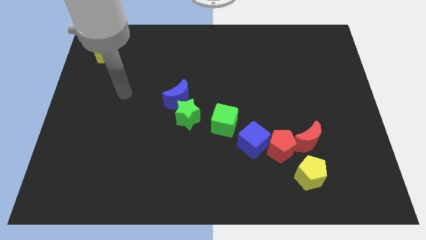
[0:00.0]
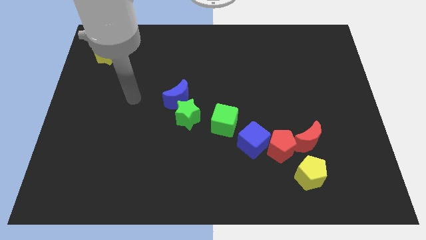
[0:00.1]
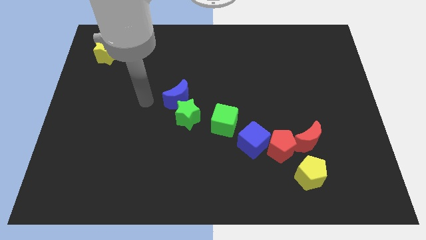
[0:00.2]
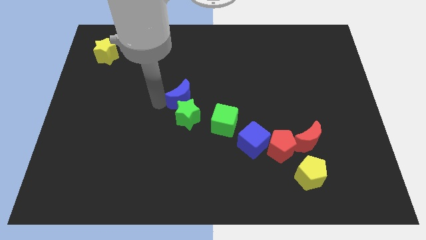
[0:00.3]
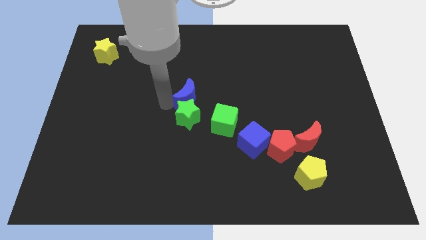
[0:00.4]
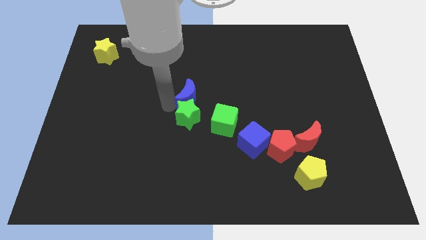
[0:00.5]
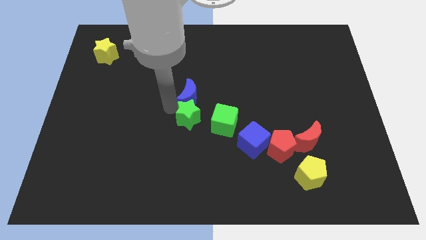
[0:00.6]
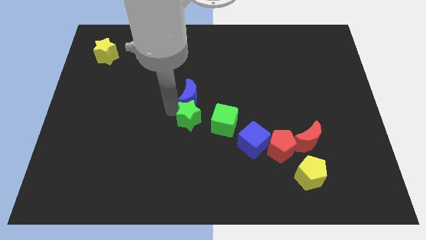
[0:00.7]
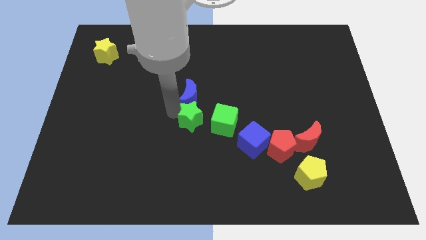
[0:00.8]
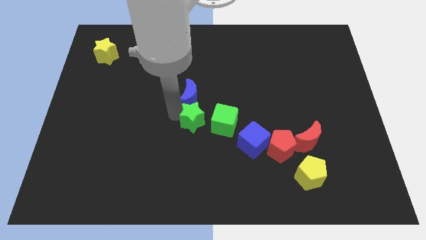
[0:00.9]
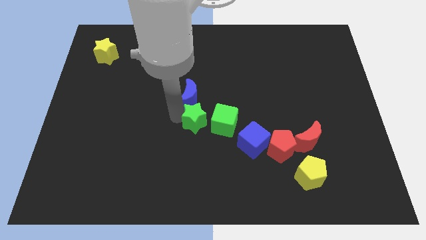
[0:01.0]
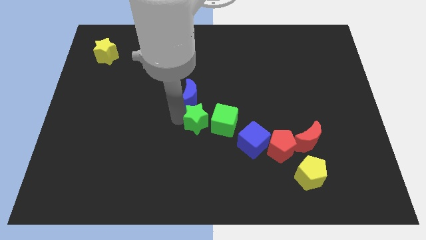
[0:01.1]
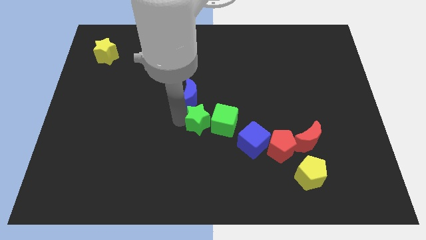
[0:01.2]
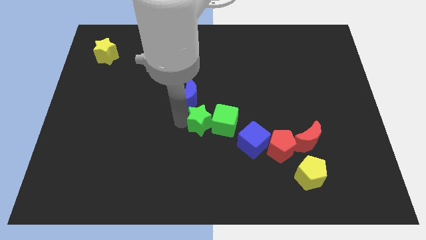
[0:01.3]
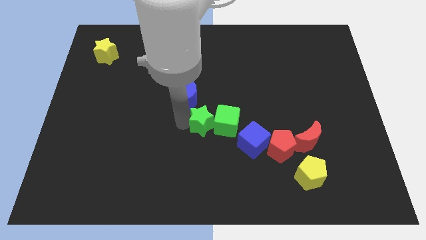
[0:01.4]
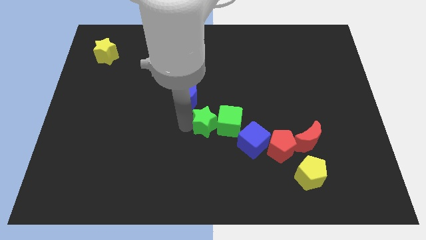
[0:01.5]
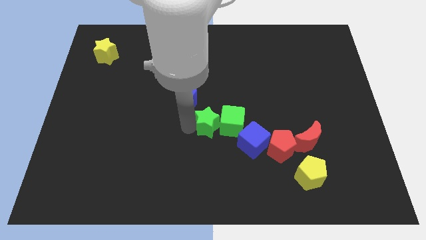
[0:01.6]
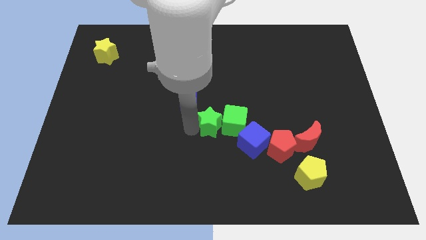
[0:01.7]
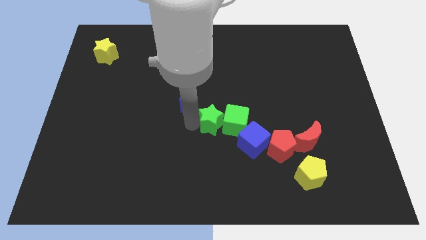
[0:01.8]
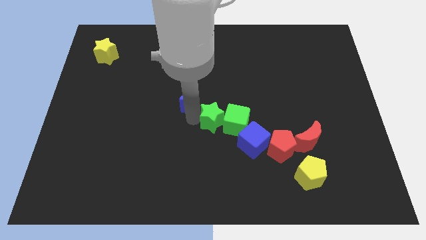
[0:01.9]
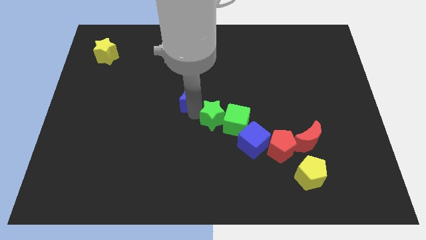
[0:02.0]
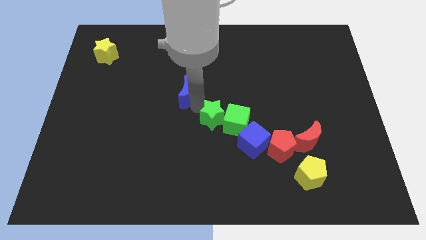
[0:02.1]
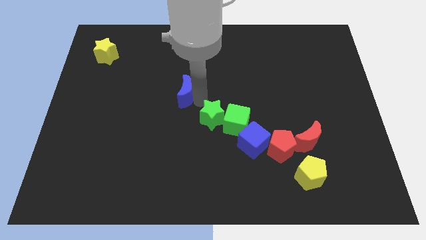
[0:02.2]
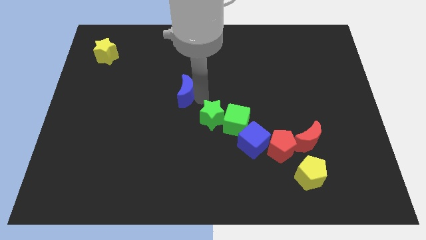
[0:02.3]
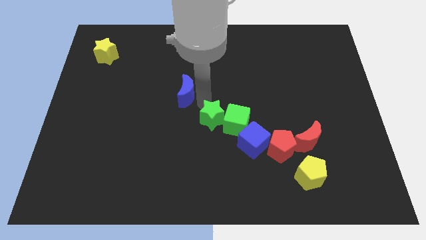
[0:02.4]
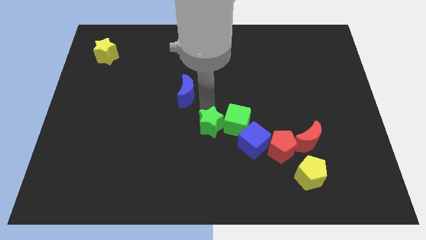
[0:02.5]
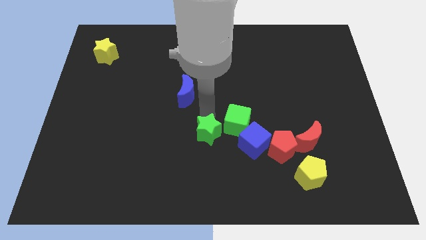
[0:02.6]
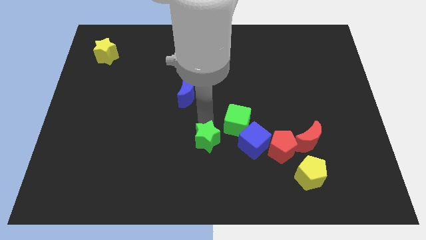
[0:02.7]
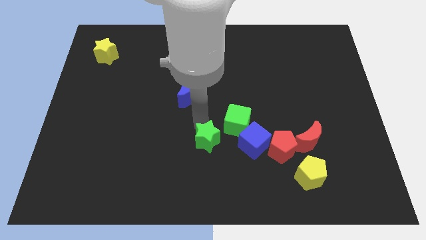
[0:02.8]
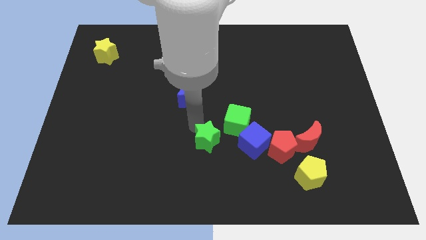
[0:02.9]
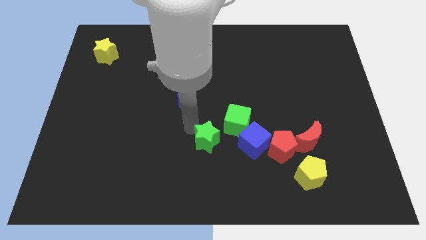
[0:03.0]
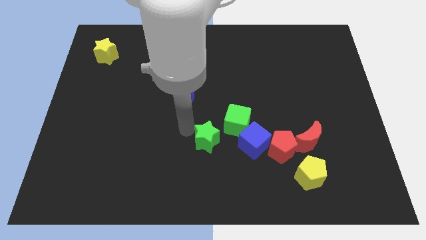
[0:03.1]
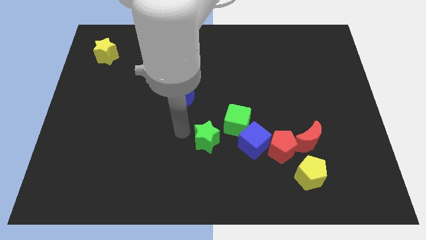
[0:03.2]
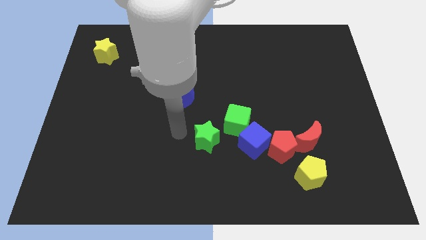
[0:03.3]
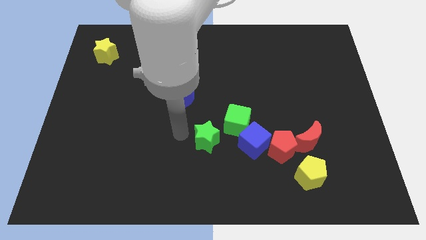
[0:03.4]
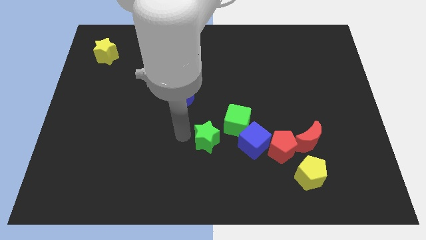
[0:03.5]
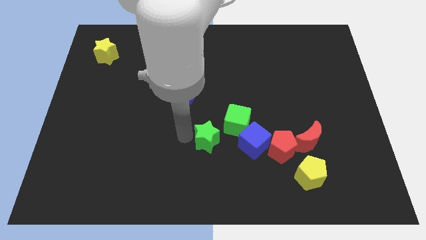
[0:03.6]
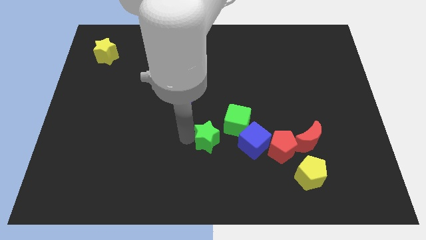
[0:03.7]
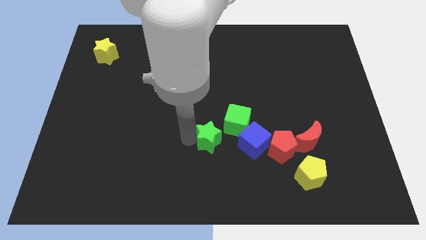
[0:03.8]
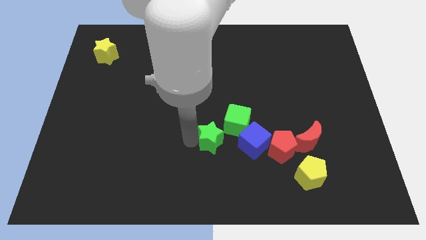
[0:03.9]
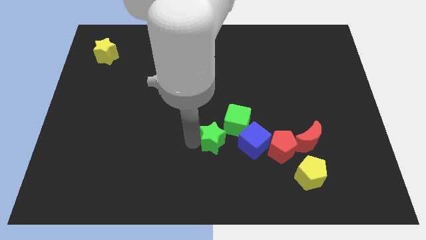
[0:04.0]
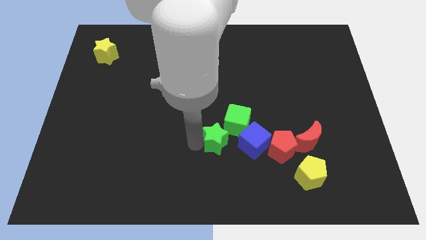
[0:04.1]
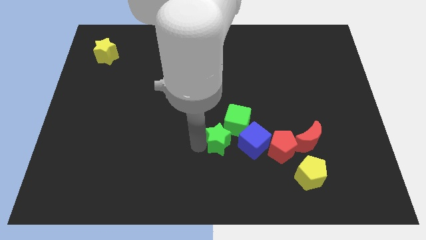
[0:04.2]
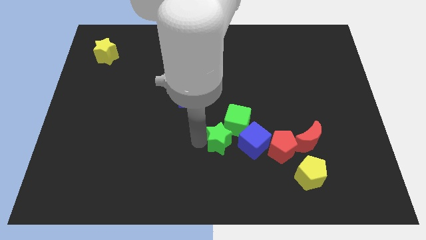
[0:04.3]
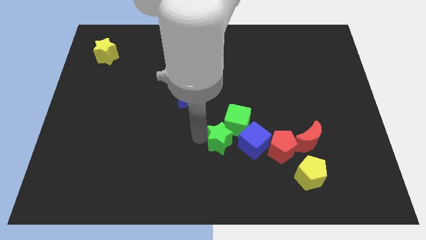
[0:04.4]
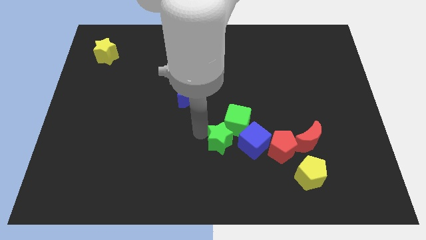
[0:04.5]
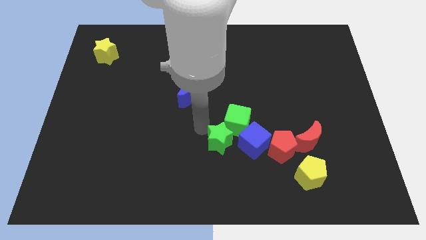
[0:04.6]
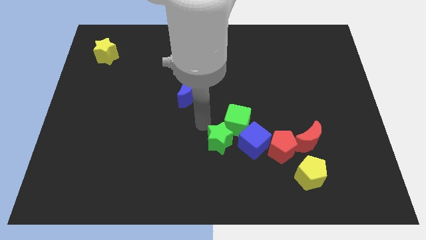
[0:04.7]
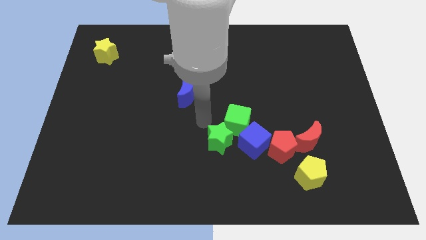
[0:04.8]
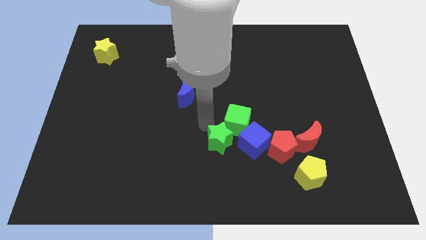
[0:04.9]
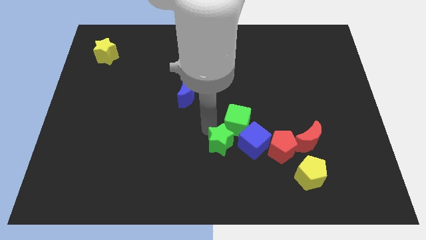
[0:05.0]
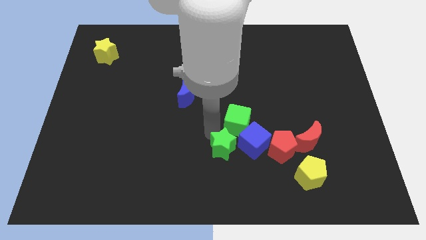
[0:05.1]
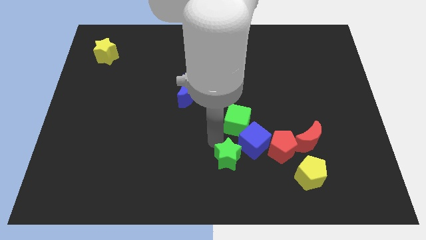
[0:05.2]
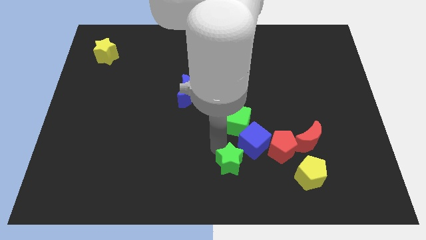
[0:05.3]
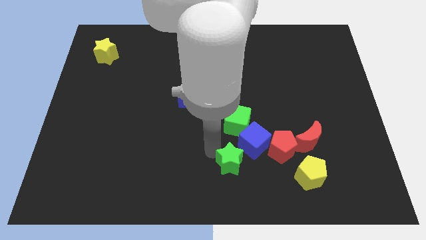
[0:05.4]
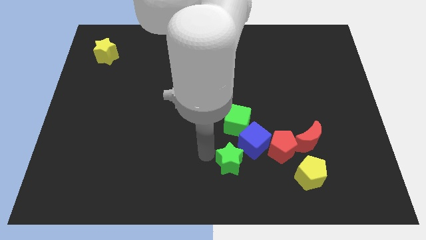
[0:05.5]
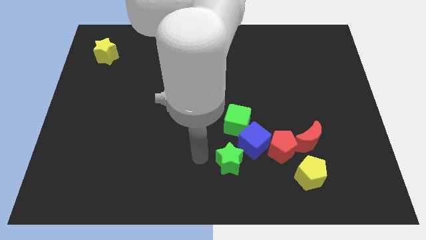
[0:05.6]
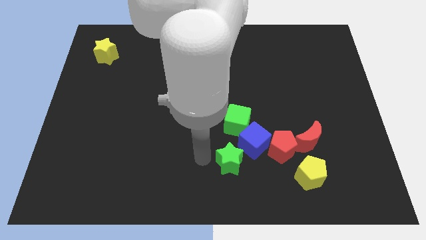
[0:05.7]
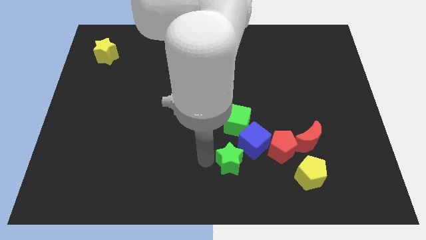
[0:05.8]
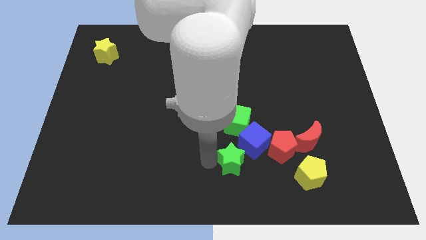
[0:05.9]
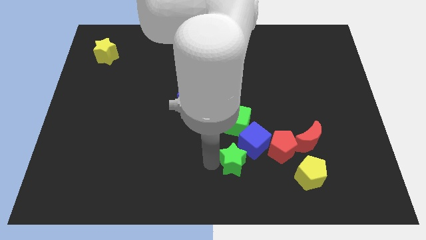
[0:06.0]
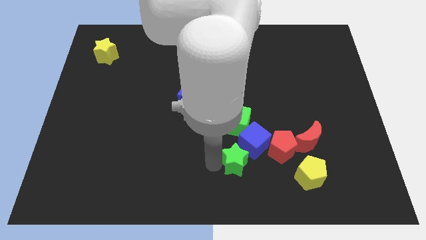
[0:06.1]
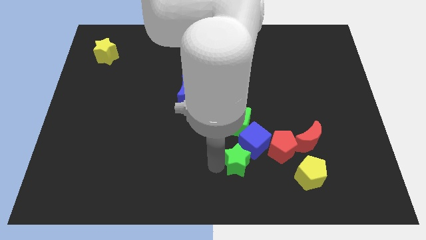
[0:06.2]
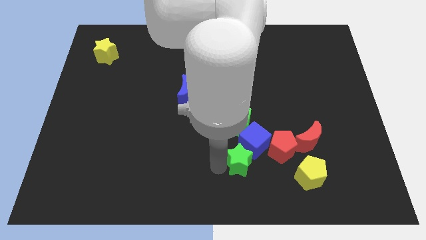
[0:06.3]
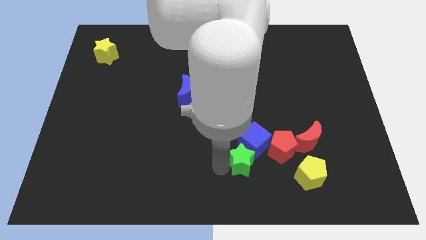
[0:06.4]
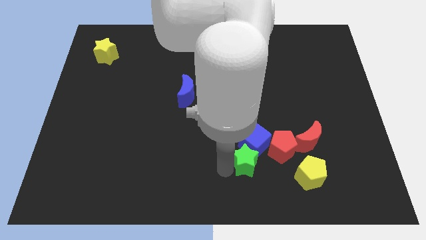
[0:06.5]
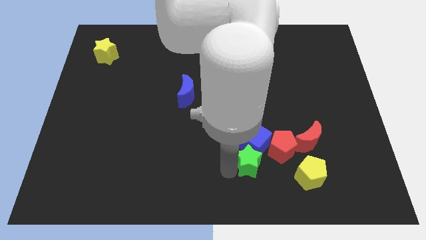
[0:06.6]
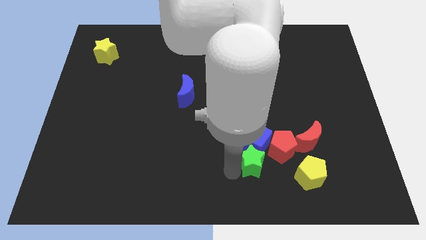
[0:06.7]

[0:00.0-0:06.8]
push the green star to the bottom right side of the blue cube

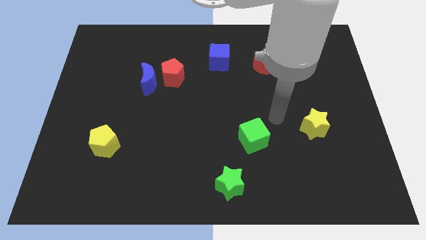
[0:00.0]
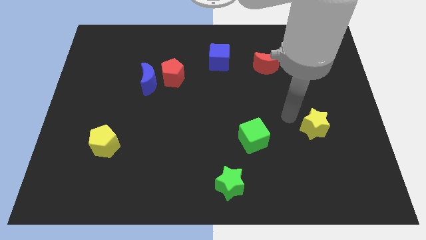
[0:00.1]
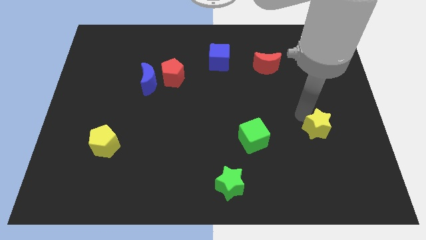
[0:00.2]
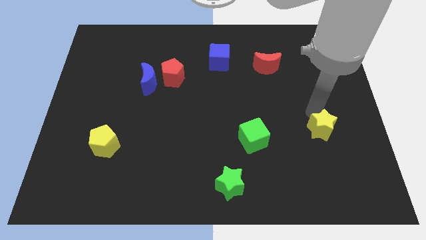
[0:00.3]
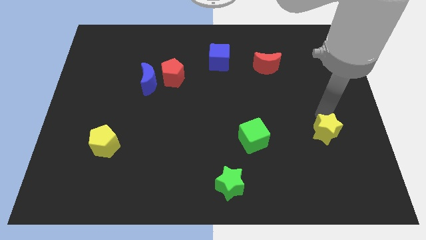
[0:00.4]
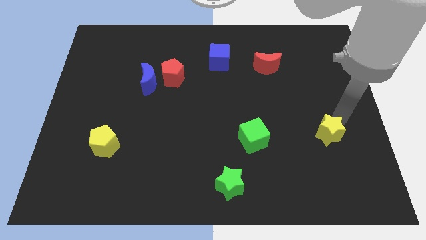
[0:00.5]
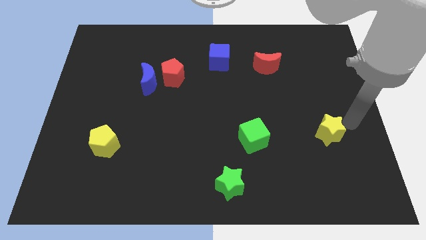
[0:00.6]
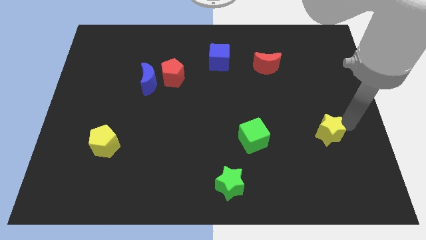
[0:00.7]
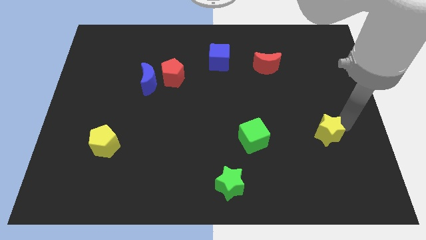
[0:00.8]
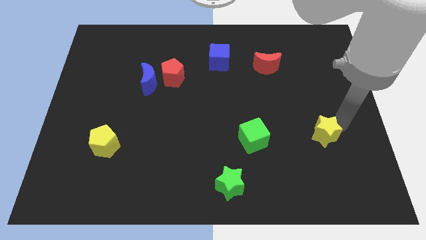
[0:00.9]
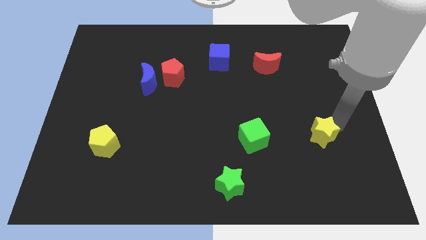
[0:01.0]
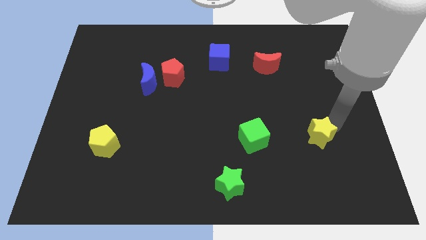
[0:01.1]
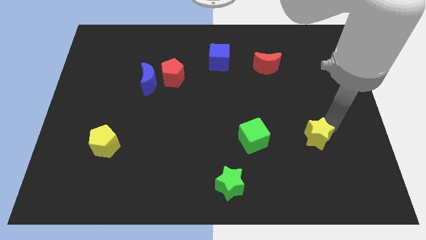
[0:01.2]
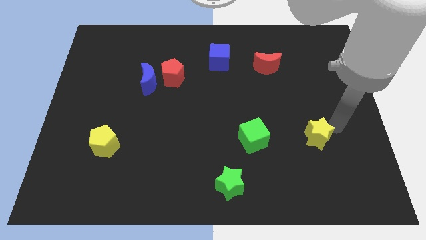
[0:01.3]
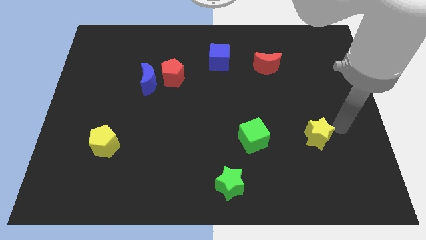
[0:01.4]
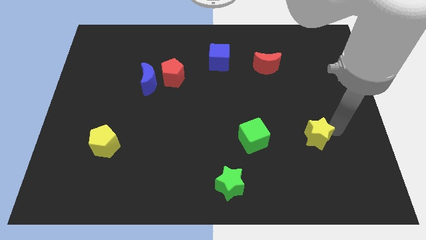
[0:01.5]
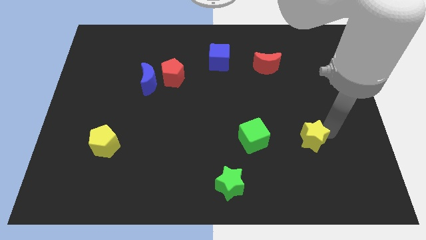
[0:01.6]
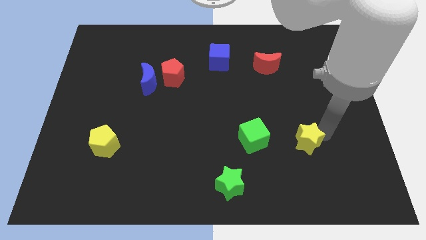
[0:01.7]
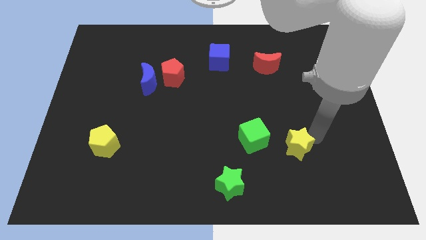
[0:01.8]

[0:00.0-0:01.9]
put the yellow star to the bottom right side of the green cube
